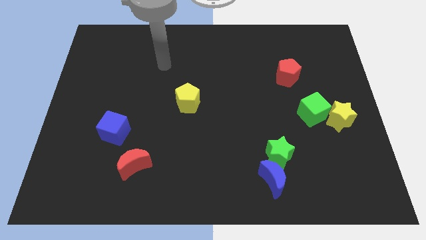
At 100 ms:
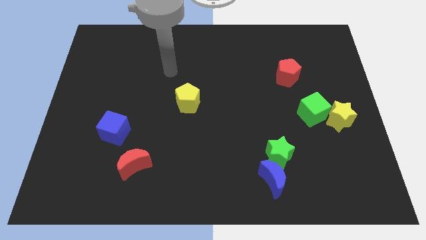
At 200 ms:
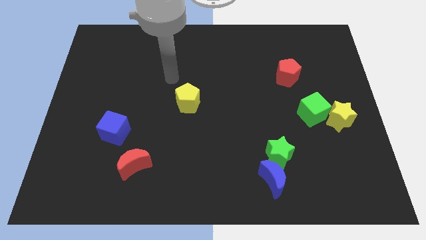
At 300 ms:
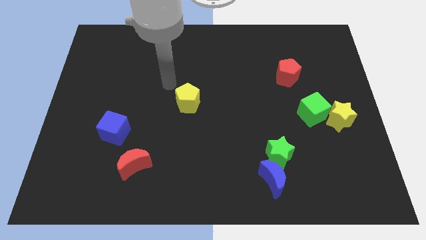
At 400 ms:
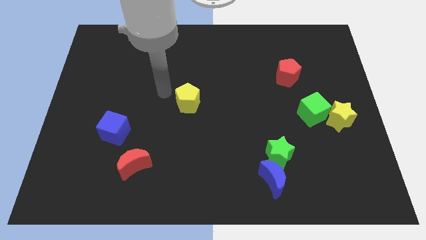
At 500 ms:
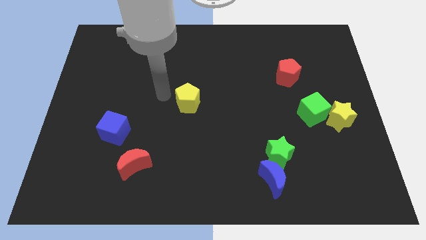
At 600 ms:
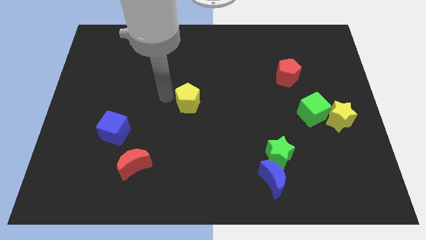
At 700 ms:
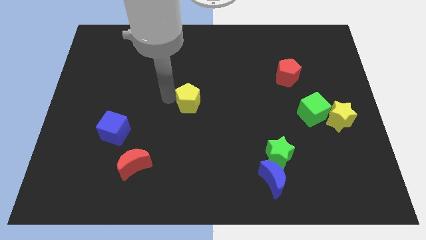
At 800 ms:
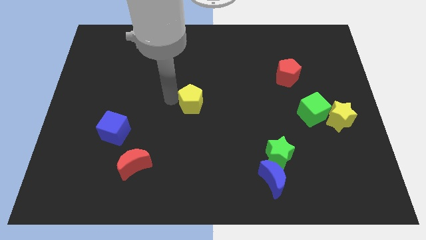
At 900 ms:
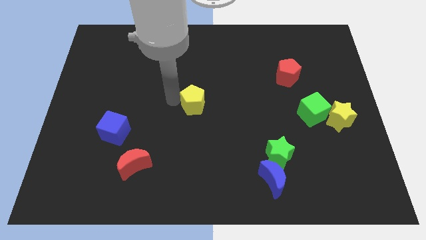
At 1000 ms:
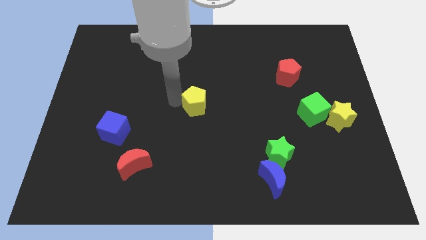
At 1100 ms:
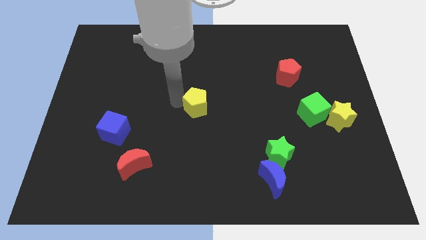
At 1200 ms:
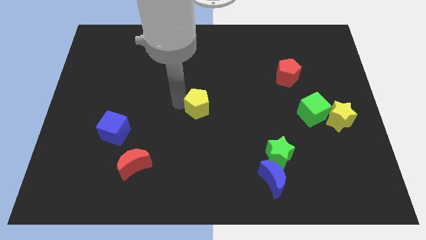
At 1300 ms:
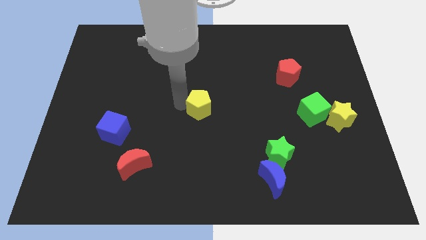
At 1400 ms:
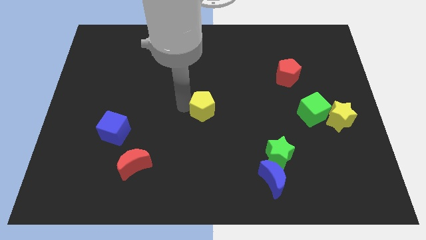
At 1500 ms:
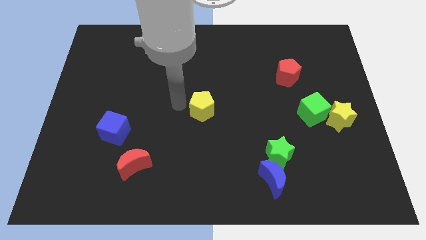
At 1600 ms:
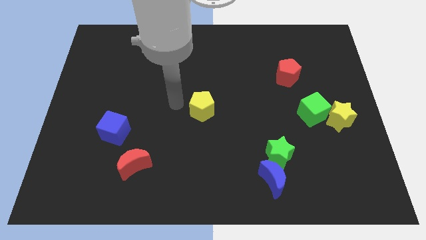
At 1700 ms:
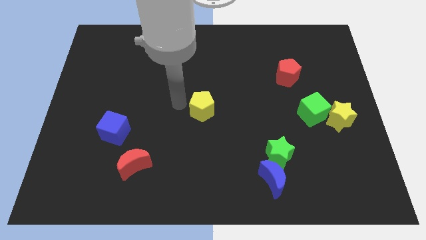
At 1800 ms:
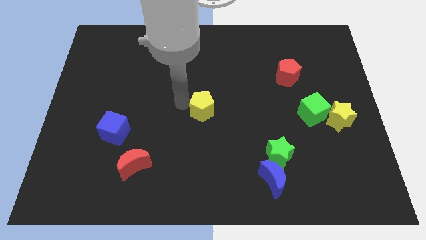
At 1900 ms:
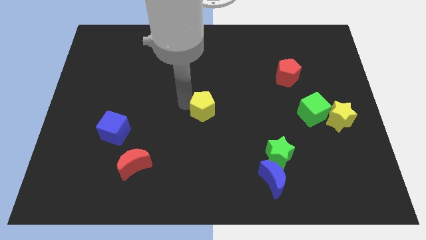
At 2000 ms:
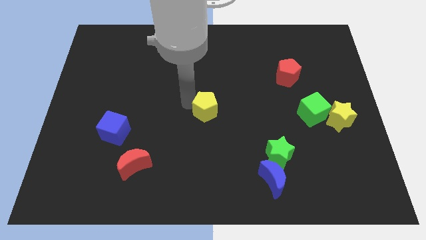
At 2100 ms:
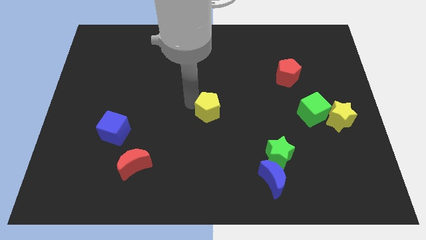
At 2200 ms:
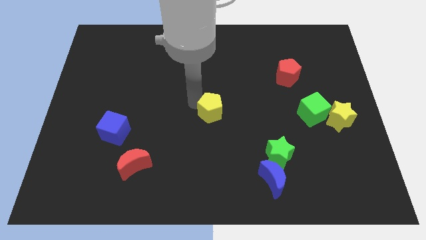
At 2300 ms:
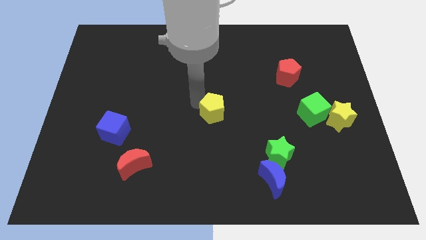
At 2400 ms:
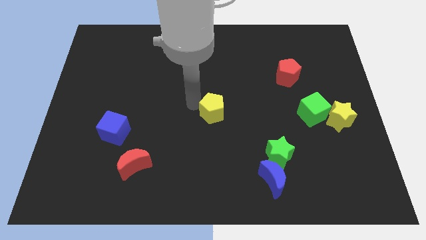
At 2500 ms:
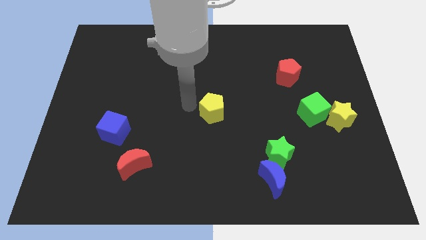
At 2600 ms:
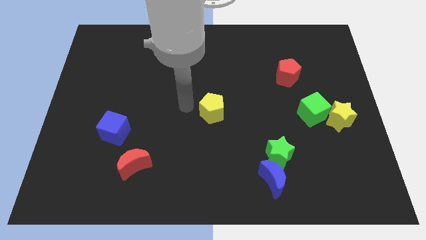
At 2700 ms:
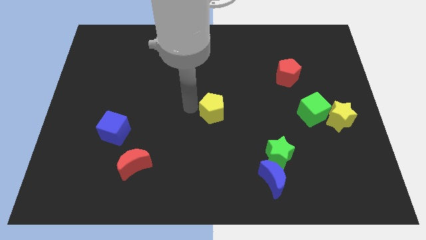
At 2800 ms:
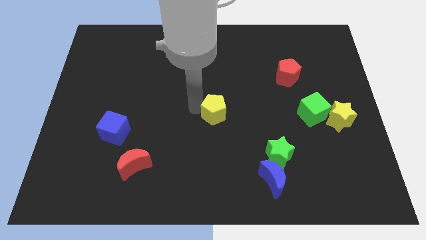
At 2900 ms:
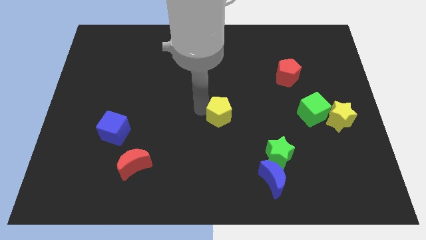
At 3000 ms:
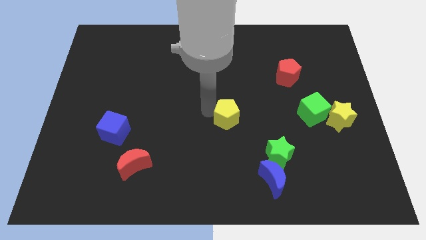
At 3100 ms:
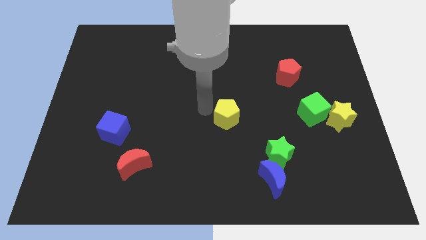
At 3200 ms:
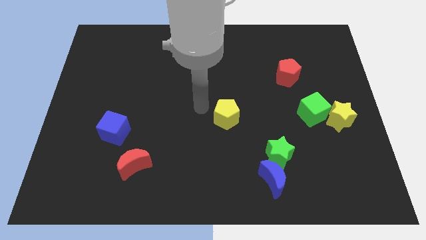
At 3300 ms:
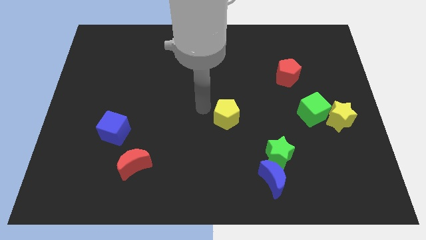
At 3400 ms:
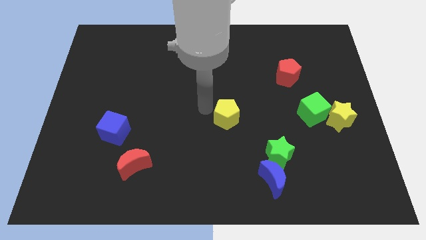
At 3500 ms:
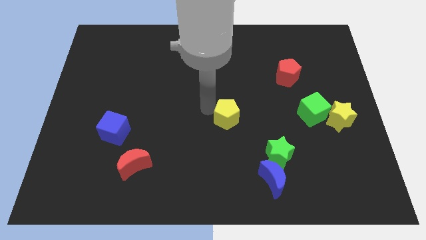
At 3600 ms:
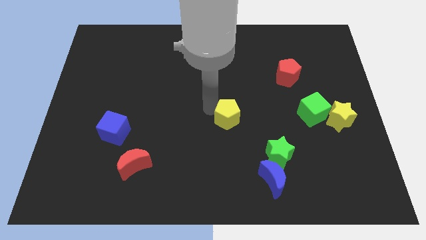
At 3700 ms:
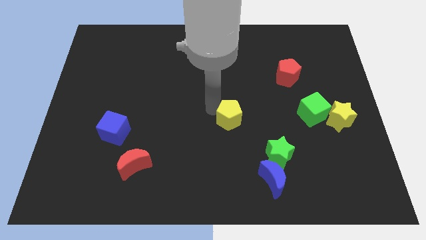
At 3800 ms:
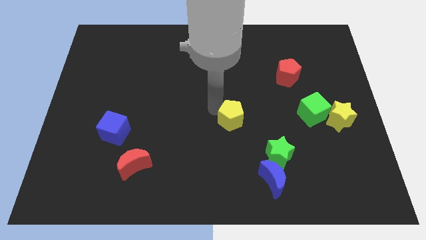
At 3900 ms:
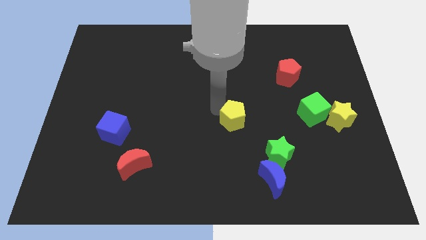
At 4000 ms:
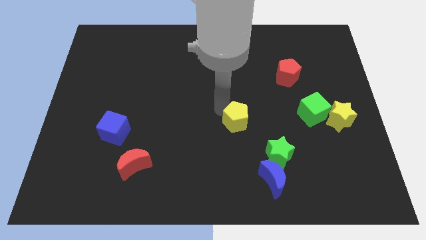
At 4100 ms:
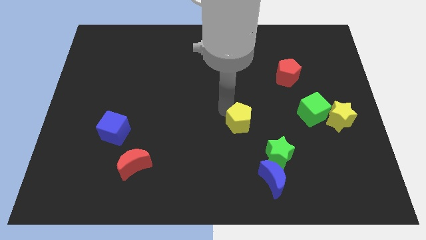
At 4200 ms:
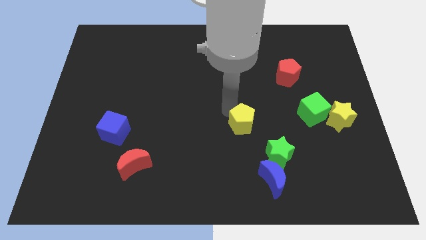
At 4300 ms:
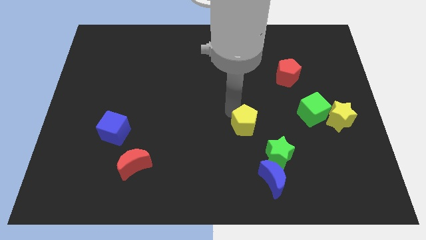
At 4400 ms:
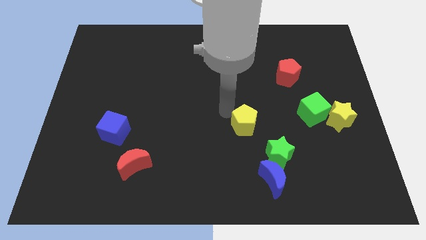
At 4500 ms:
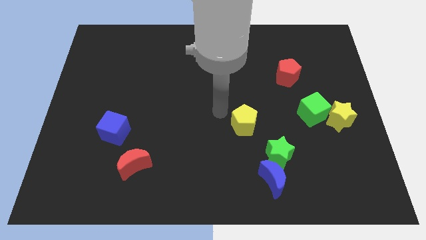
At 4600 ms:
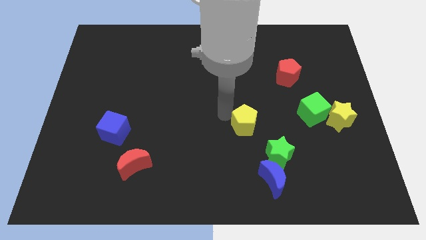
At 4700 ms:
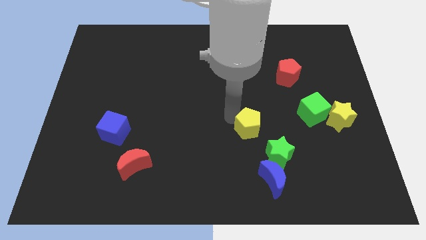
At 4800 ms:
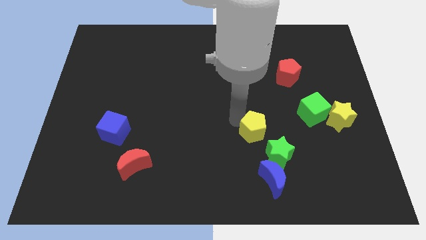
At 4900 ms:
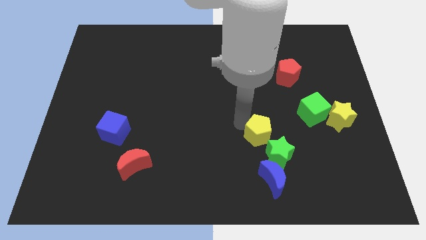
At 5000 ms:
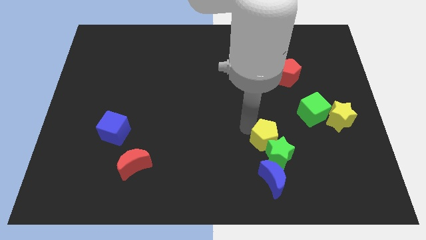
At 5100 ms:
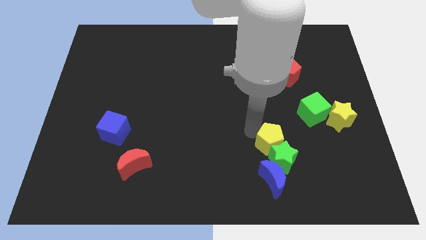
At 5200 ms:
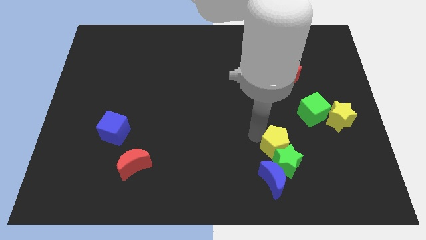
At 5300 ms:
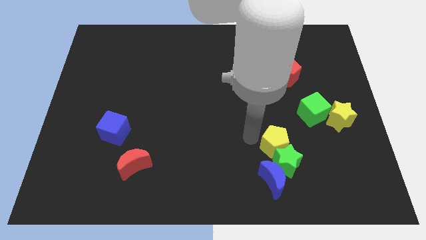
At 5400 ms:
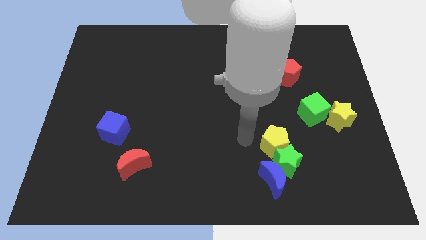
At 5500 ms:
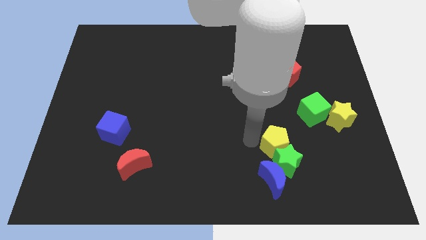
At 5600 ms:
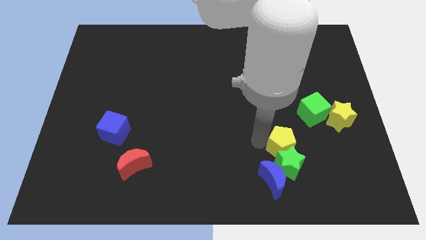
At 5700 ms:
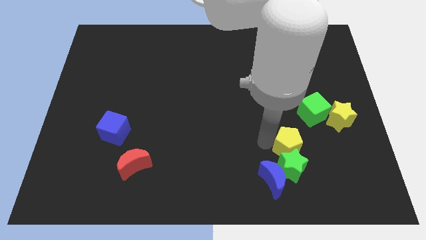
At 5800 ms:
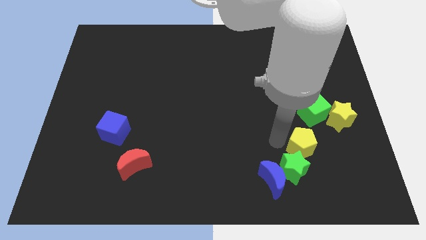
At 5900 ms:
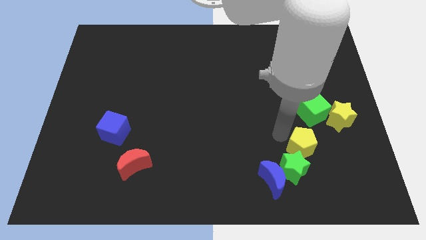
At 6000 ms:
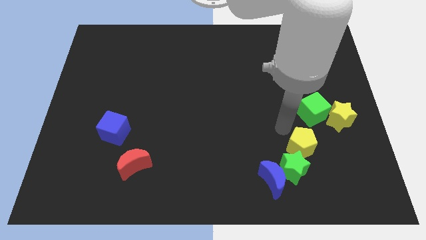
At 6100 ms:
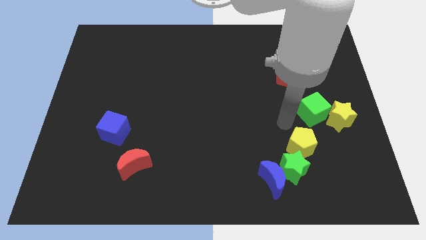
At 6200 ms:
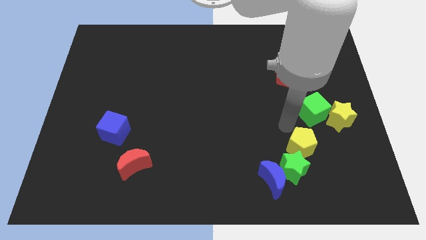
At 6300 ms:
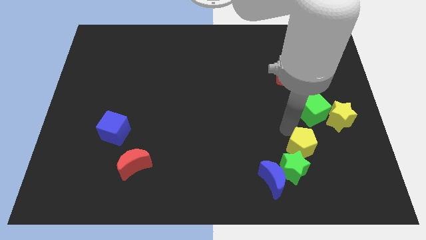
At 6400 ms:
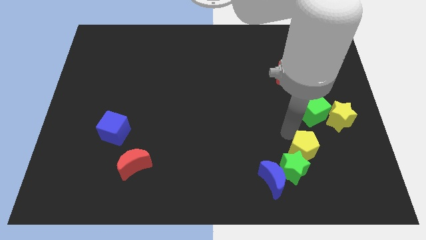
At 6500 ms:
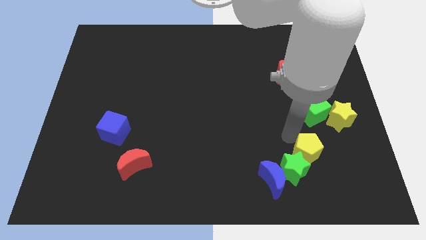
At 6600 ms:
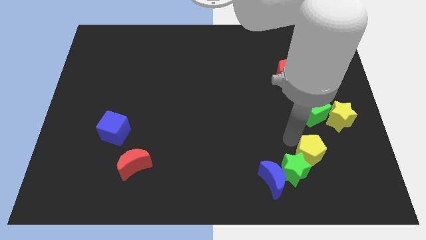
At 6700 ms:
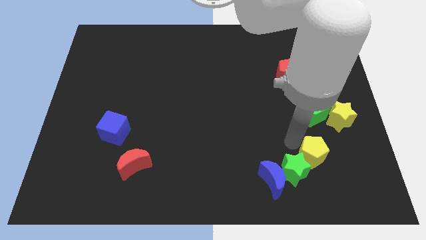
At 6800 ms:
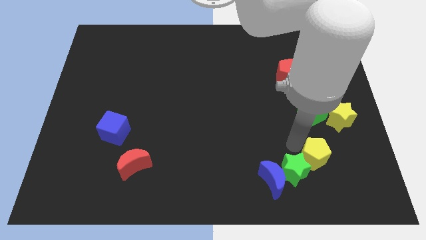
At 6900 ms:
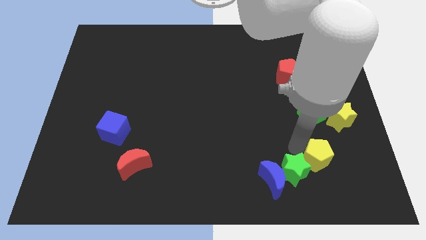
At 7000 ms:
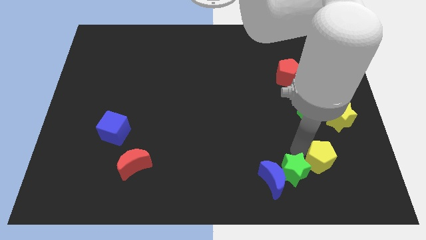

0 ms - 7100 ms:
push the yellow pentagon to the right side of the blue moon

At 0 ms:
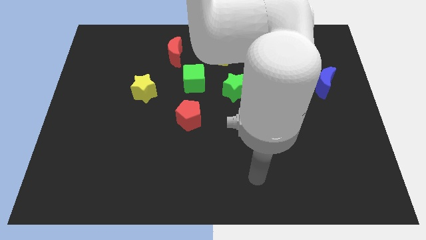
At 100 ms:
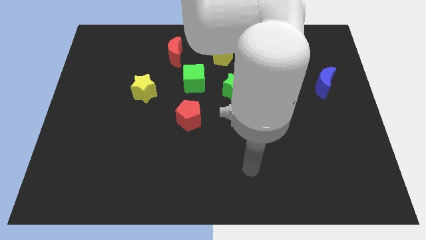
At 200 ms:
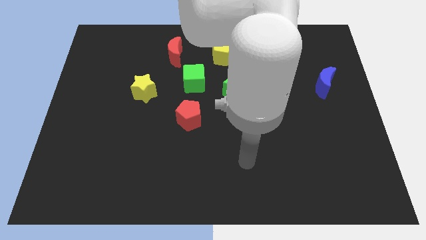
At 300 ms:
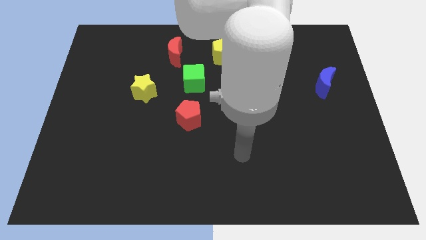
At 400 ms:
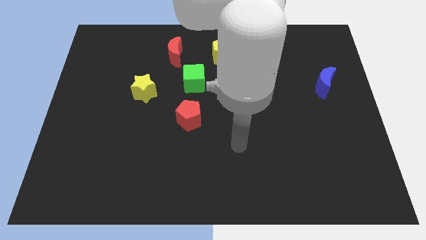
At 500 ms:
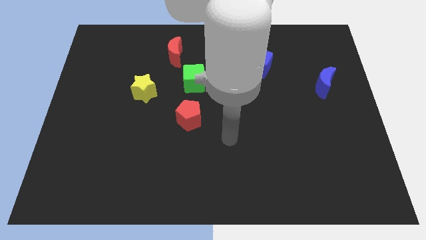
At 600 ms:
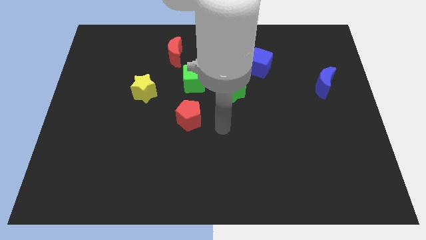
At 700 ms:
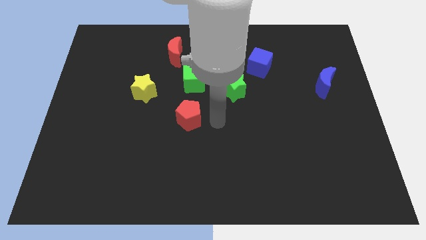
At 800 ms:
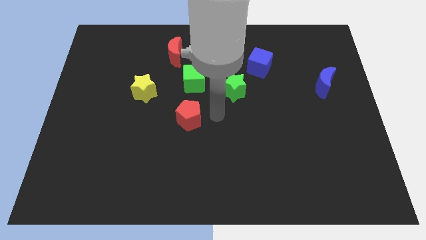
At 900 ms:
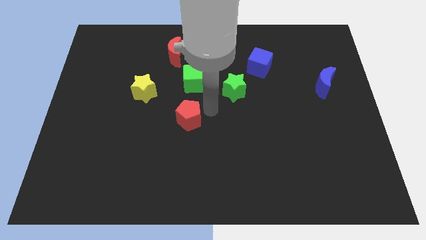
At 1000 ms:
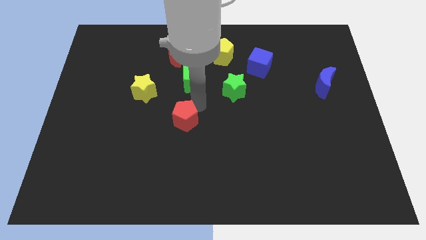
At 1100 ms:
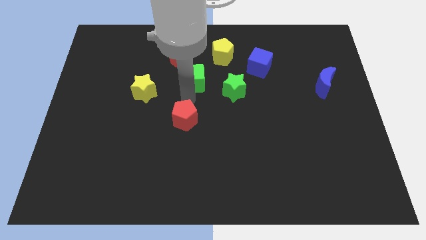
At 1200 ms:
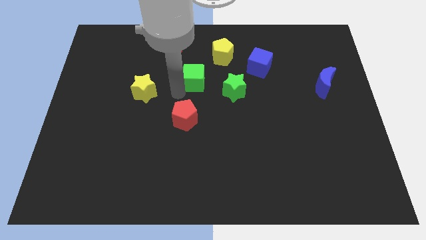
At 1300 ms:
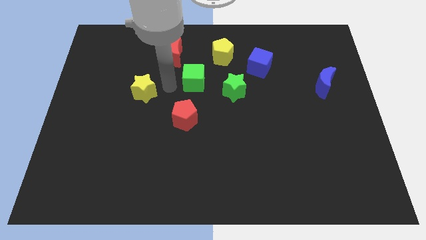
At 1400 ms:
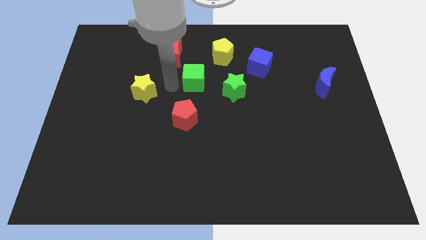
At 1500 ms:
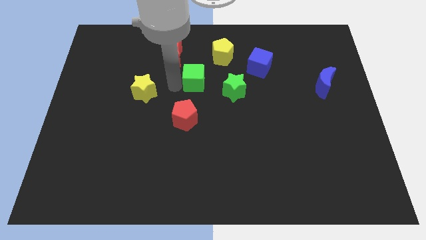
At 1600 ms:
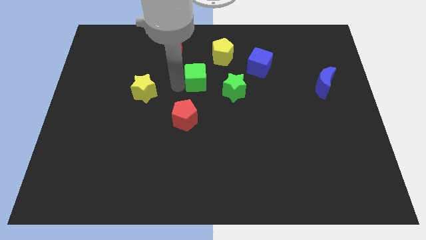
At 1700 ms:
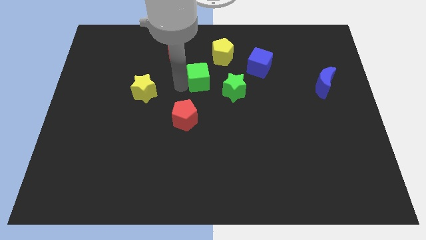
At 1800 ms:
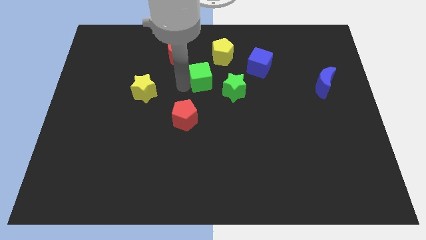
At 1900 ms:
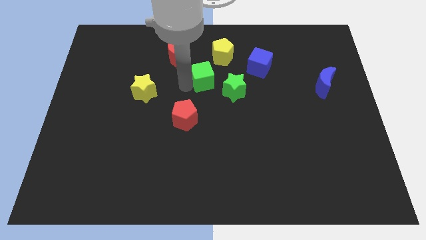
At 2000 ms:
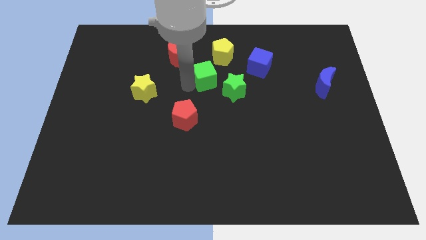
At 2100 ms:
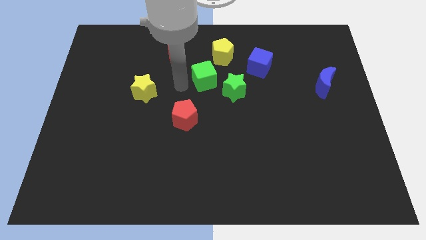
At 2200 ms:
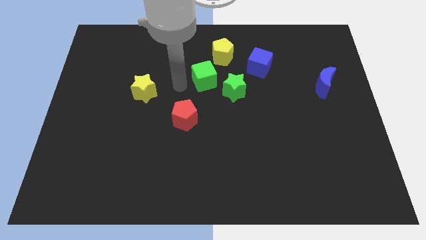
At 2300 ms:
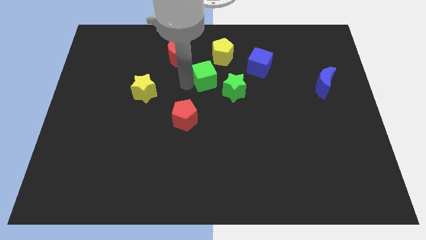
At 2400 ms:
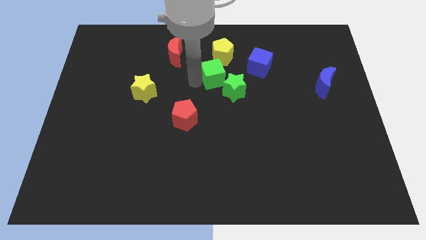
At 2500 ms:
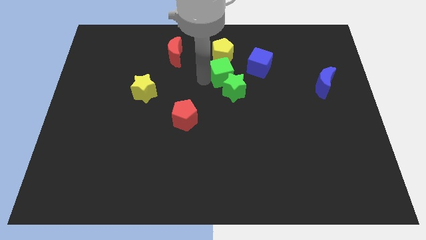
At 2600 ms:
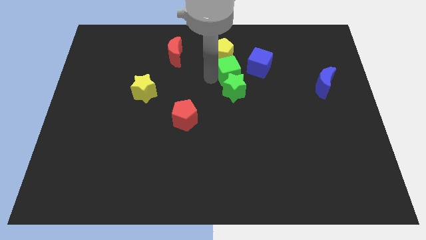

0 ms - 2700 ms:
put the green cube to the bottom right of the yellow pentagon
